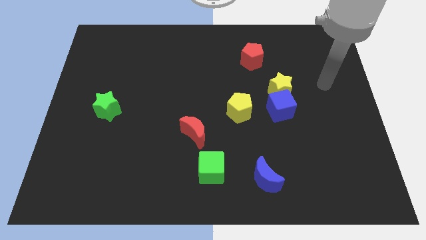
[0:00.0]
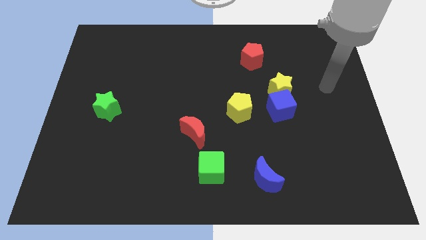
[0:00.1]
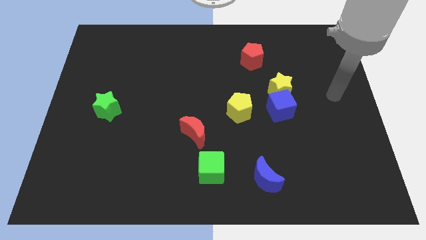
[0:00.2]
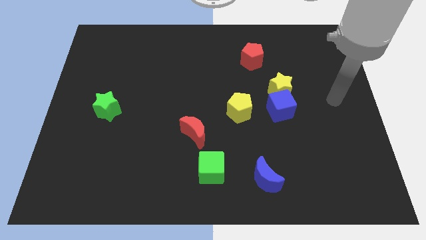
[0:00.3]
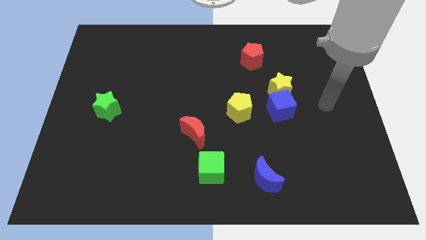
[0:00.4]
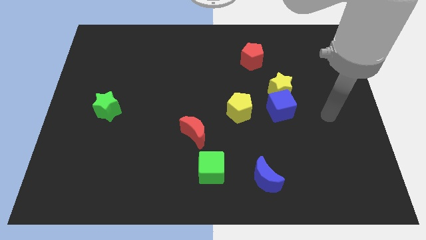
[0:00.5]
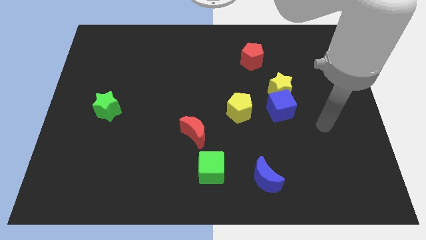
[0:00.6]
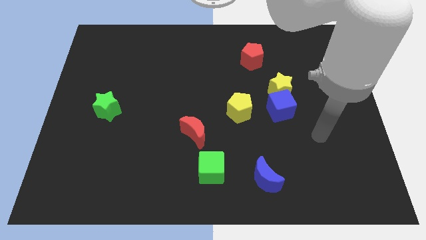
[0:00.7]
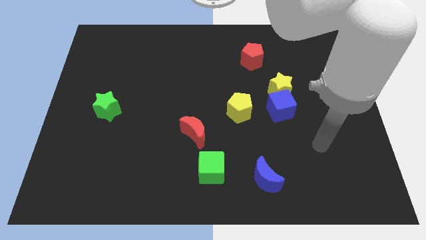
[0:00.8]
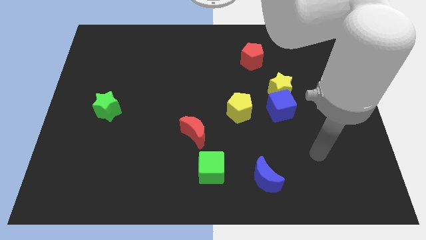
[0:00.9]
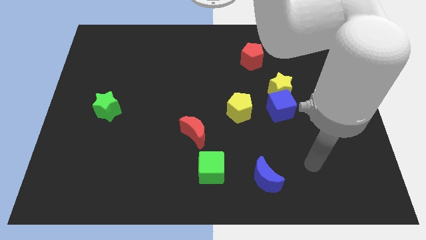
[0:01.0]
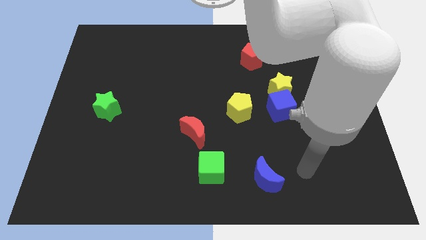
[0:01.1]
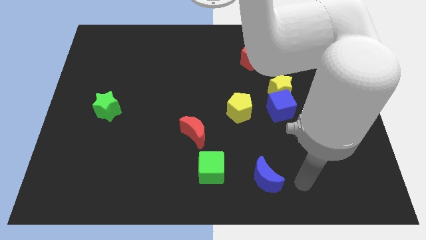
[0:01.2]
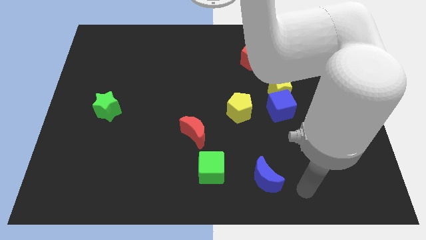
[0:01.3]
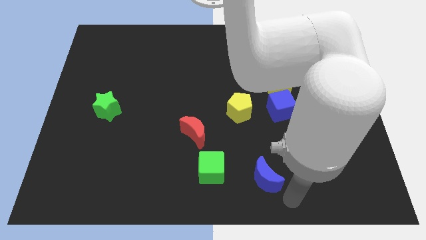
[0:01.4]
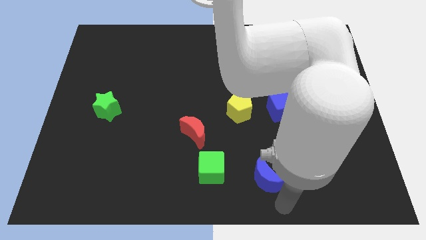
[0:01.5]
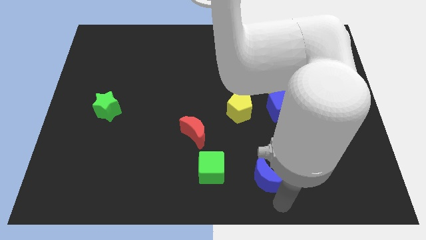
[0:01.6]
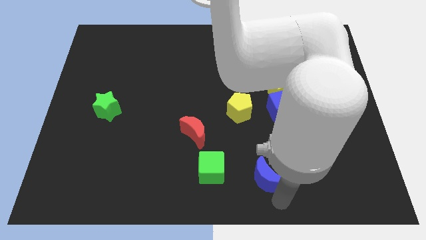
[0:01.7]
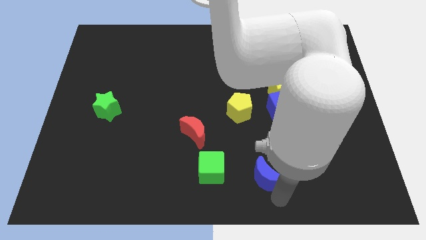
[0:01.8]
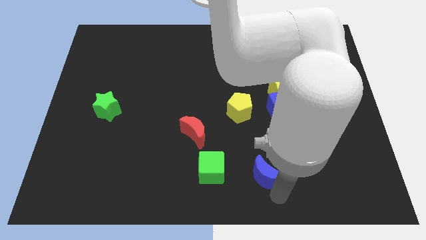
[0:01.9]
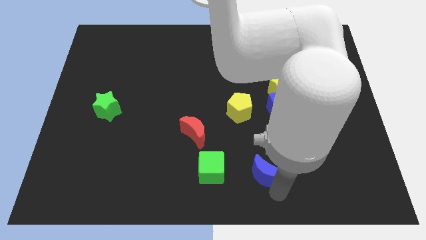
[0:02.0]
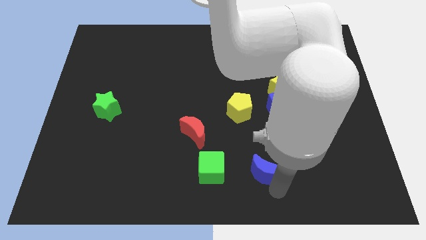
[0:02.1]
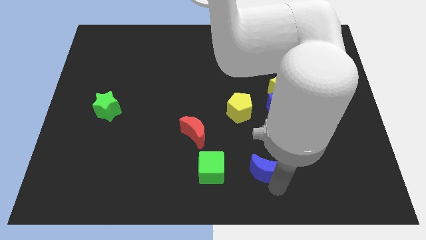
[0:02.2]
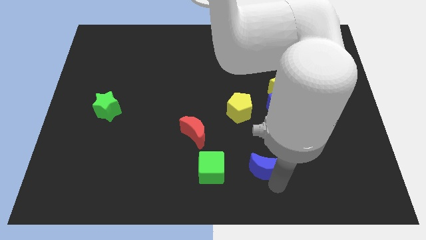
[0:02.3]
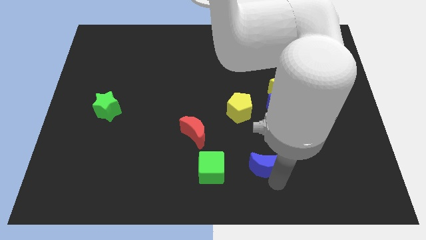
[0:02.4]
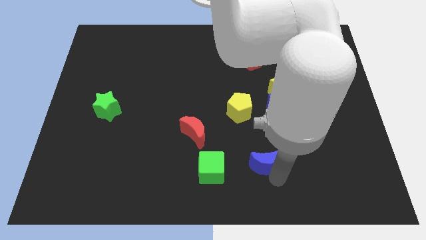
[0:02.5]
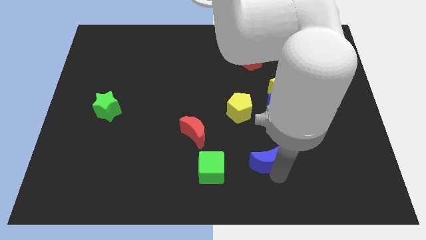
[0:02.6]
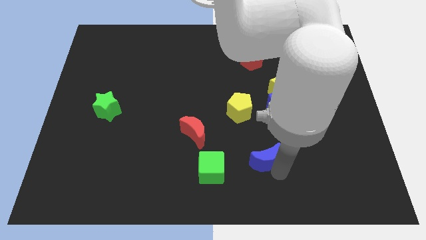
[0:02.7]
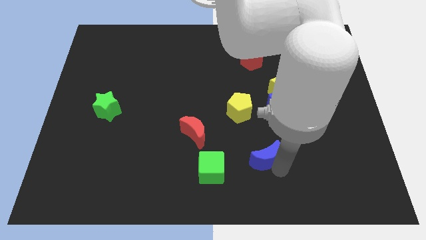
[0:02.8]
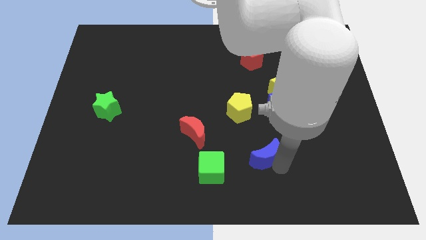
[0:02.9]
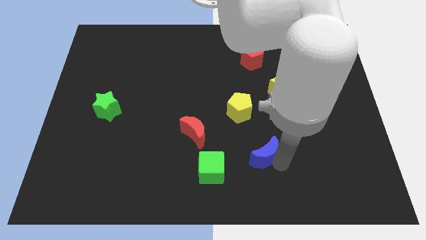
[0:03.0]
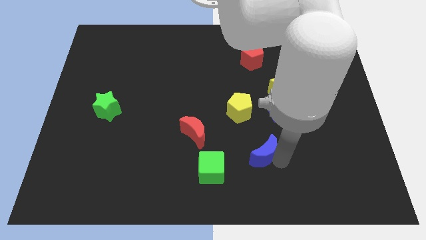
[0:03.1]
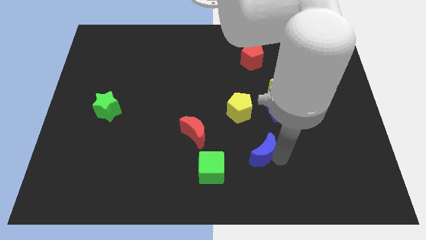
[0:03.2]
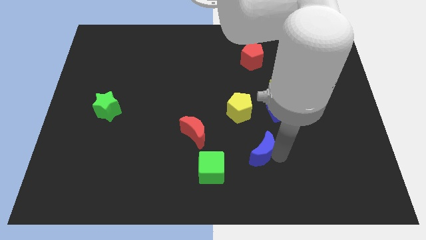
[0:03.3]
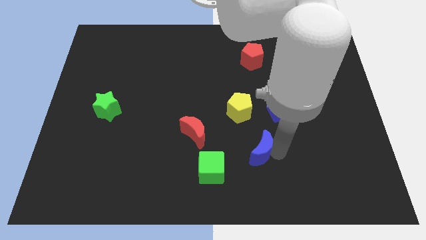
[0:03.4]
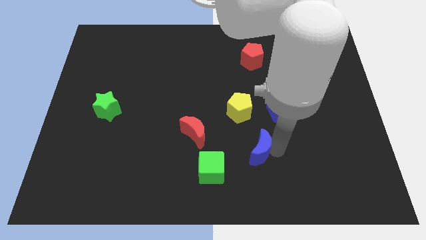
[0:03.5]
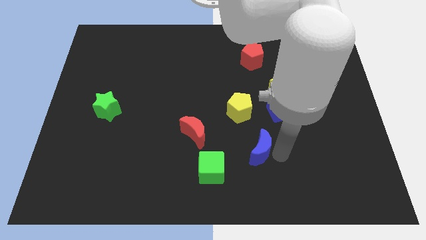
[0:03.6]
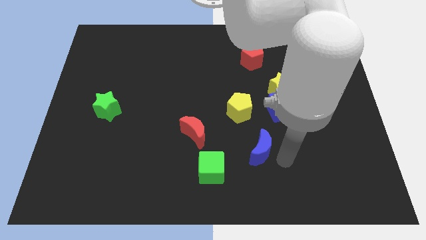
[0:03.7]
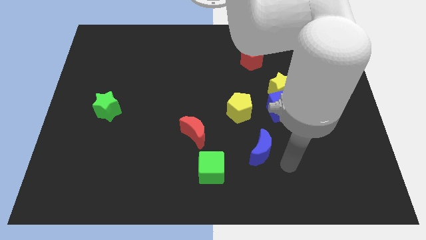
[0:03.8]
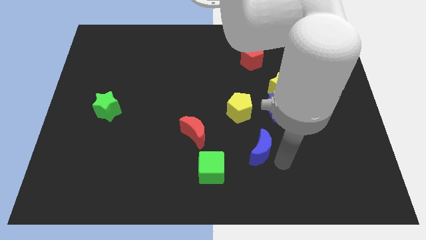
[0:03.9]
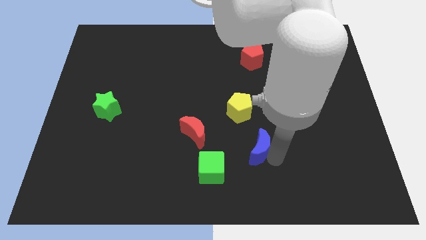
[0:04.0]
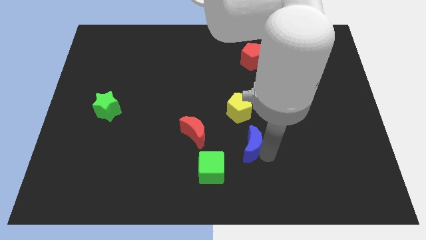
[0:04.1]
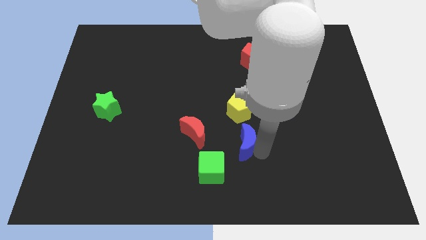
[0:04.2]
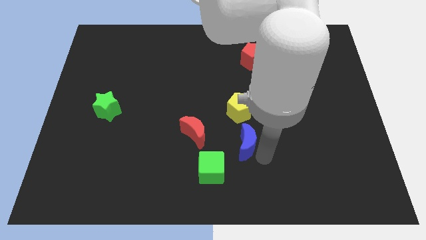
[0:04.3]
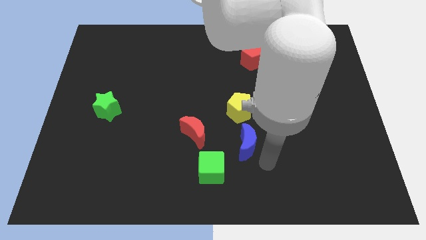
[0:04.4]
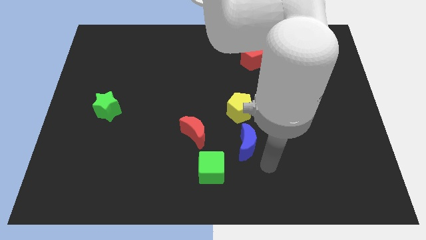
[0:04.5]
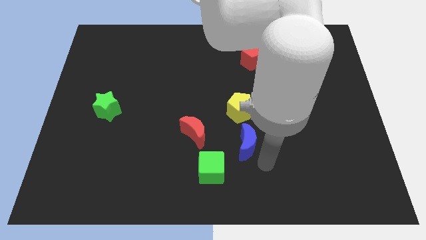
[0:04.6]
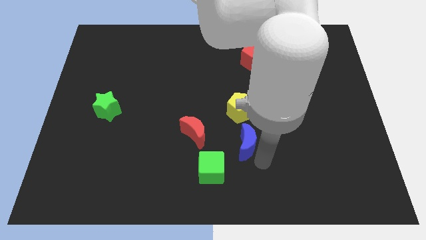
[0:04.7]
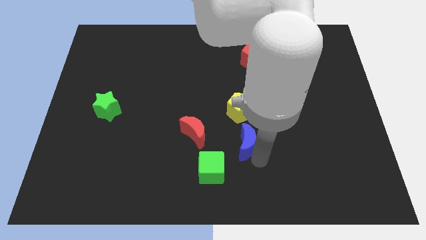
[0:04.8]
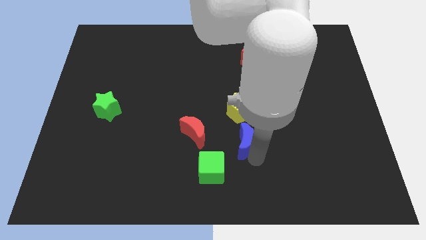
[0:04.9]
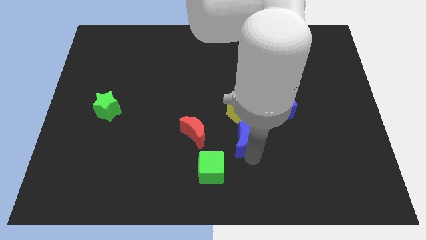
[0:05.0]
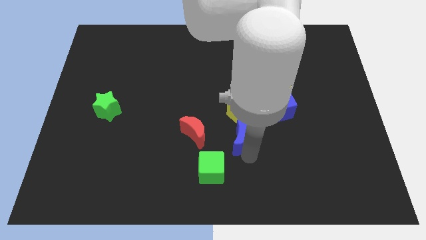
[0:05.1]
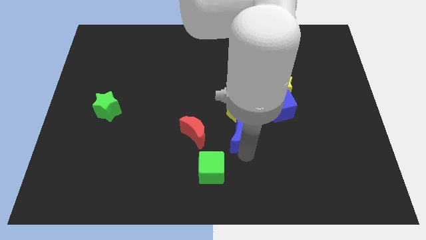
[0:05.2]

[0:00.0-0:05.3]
put the blue moon to the center of the board

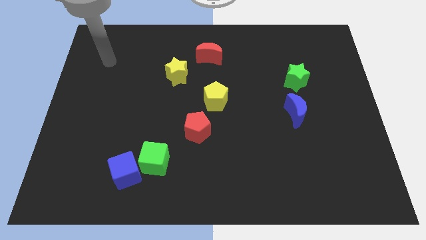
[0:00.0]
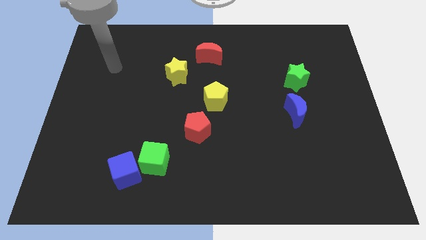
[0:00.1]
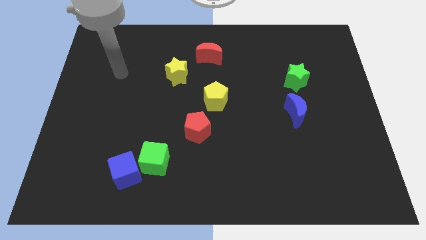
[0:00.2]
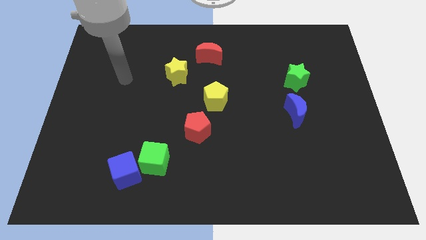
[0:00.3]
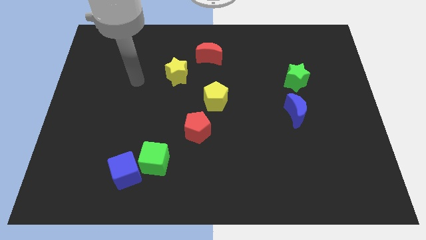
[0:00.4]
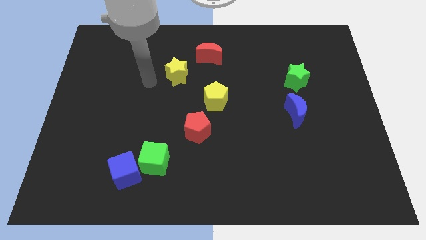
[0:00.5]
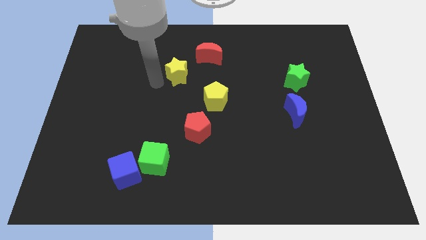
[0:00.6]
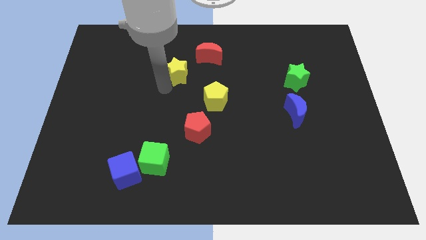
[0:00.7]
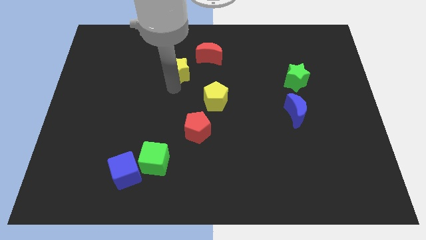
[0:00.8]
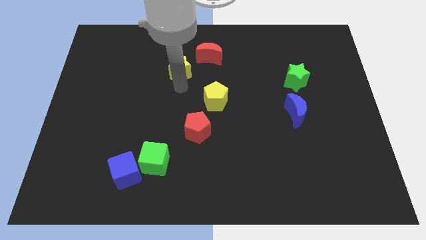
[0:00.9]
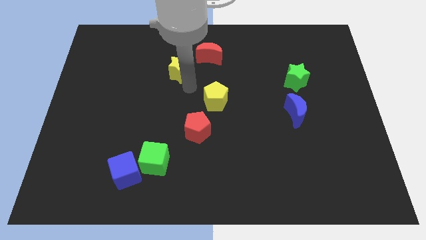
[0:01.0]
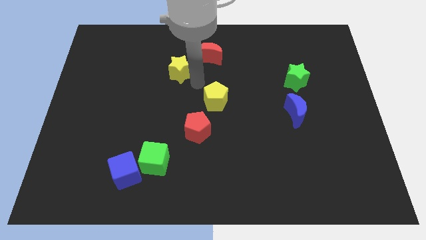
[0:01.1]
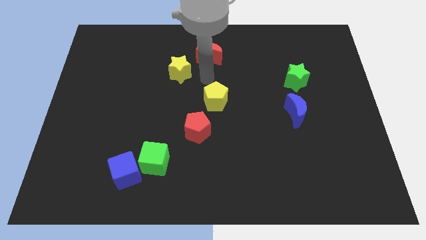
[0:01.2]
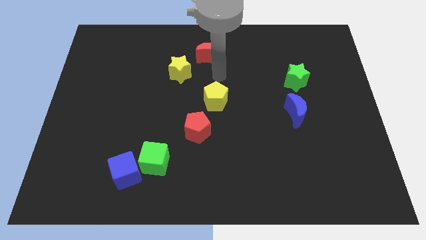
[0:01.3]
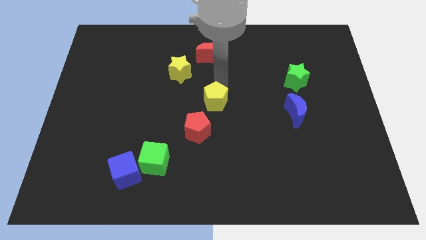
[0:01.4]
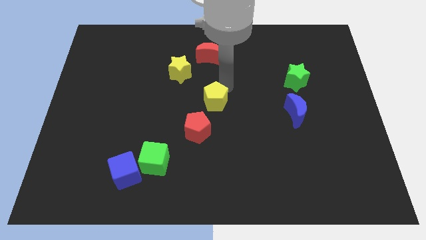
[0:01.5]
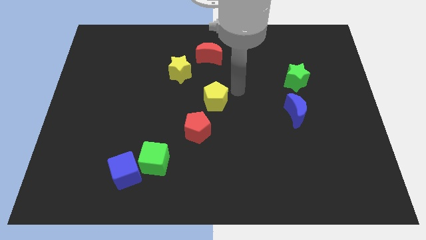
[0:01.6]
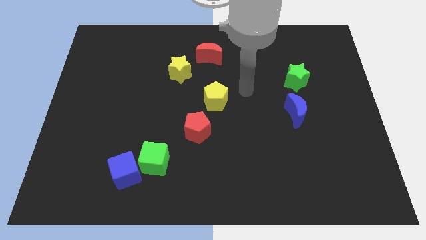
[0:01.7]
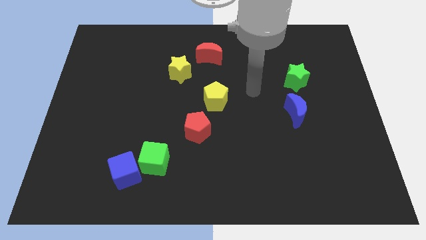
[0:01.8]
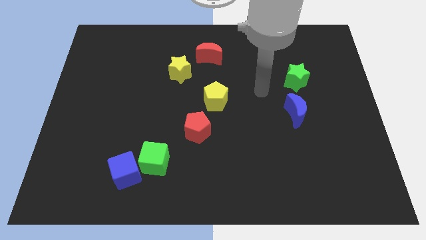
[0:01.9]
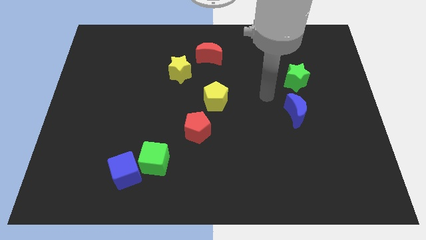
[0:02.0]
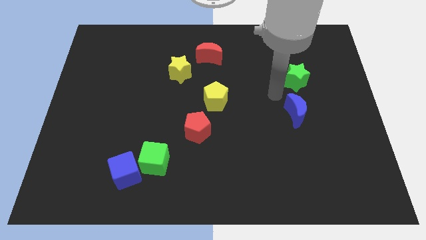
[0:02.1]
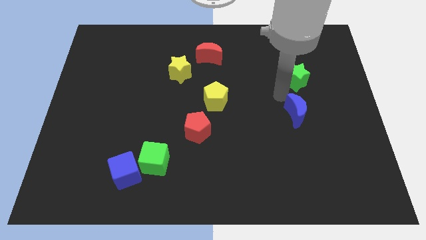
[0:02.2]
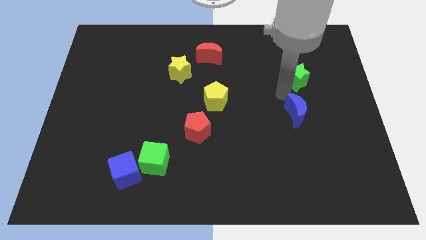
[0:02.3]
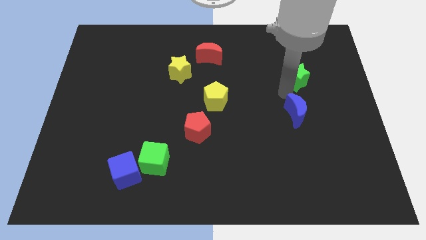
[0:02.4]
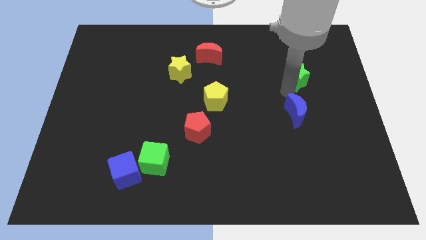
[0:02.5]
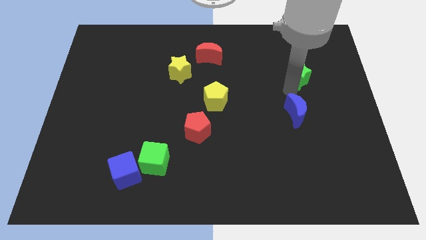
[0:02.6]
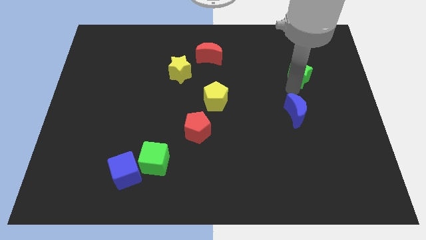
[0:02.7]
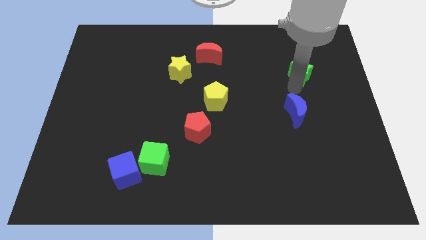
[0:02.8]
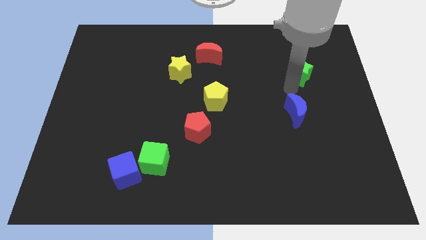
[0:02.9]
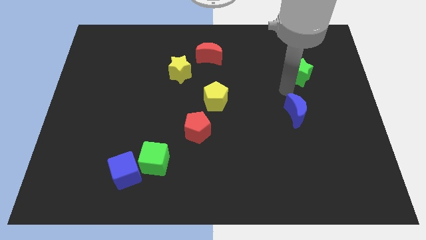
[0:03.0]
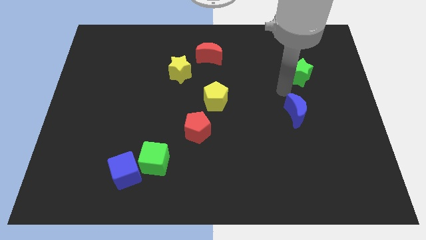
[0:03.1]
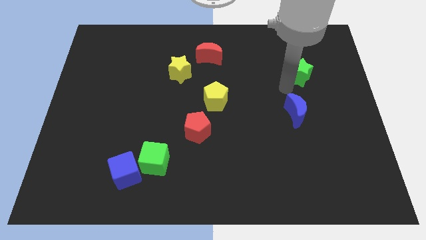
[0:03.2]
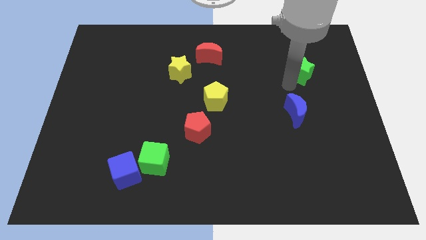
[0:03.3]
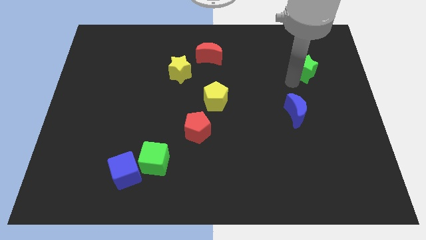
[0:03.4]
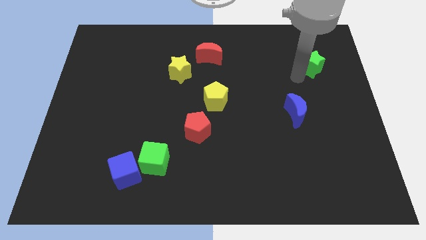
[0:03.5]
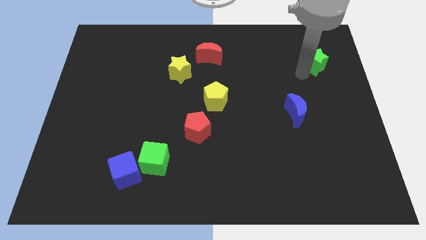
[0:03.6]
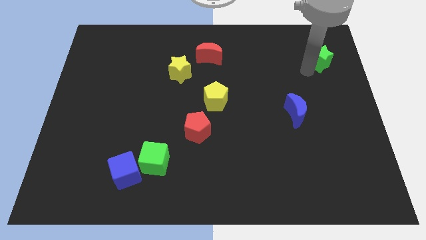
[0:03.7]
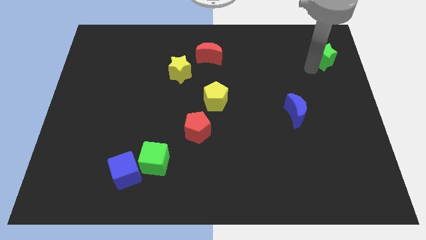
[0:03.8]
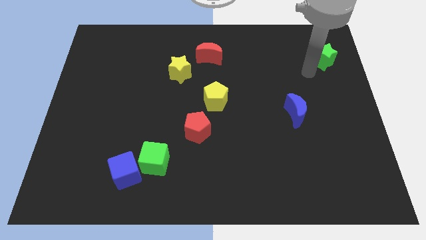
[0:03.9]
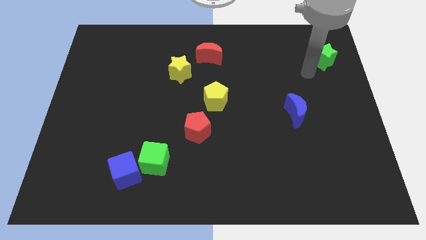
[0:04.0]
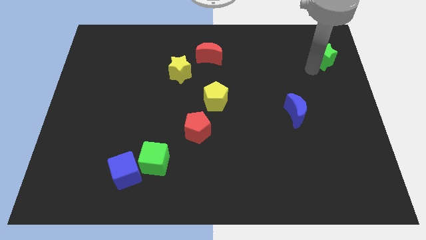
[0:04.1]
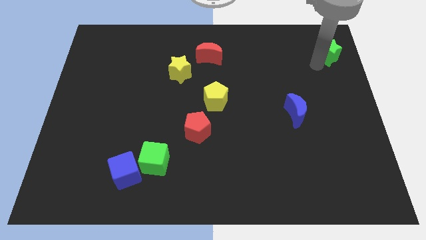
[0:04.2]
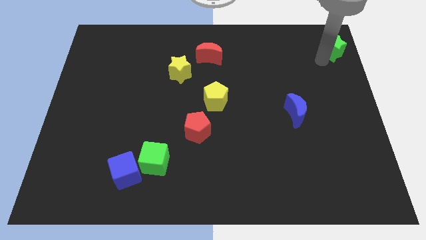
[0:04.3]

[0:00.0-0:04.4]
put the green star to the upper right corner
